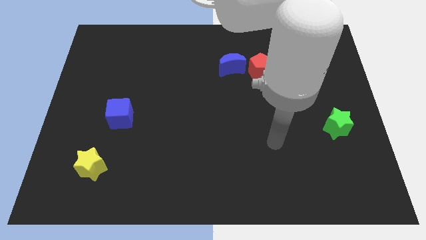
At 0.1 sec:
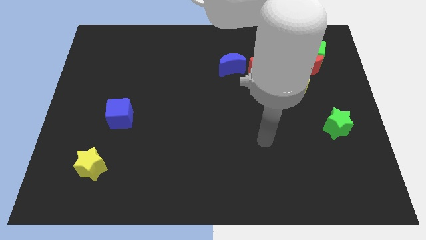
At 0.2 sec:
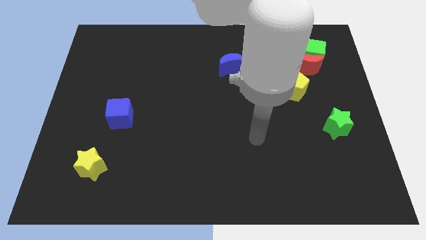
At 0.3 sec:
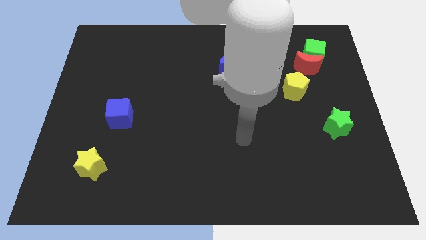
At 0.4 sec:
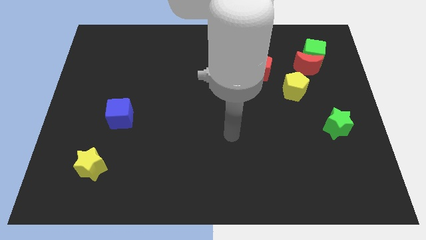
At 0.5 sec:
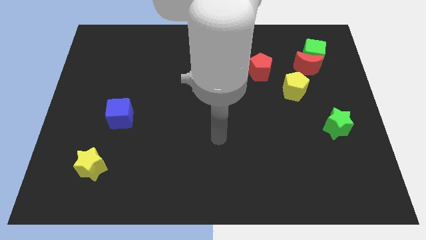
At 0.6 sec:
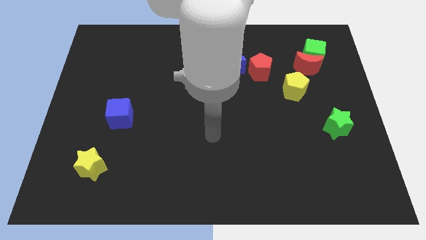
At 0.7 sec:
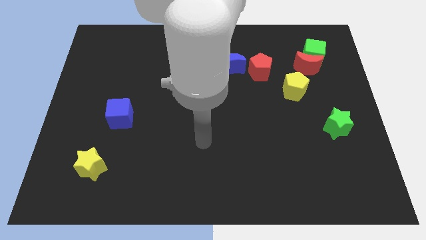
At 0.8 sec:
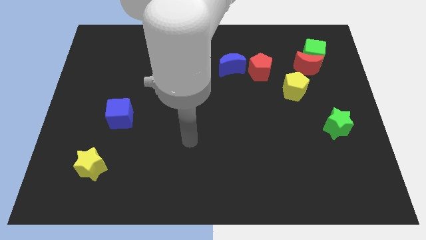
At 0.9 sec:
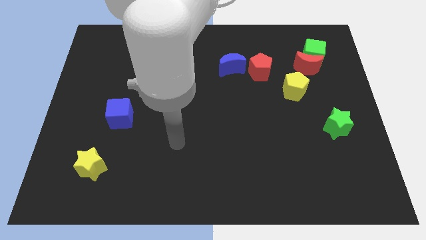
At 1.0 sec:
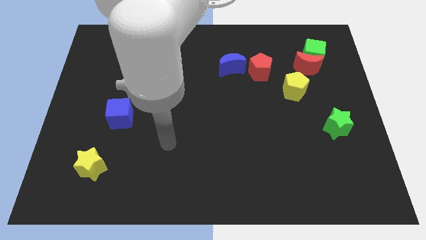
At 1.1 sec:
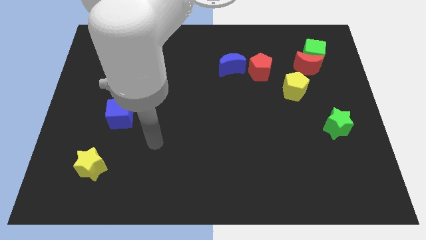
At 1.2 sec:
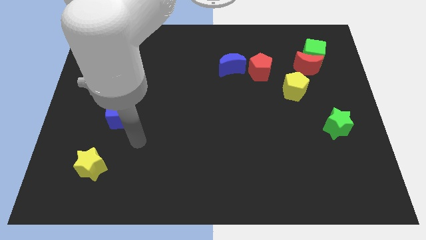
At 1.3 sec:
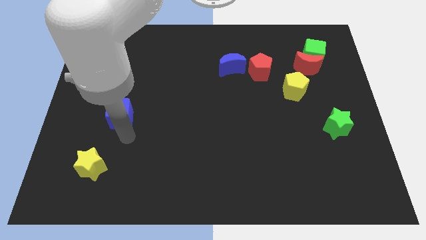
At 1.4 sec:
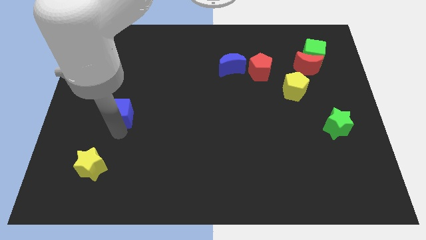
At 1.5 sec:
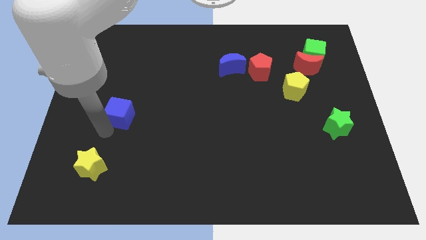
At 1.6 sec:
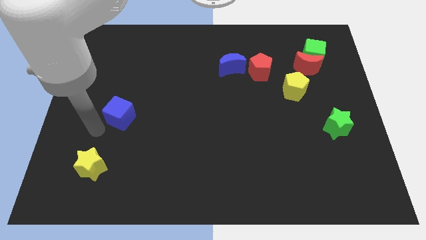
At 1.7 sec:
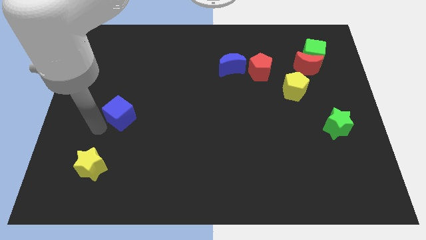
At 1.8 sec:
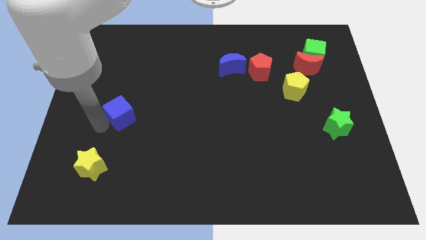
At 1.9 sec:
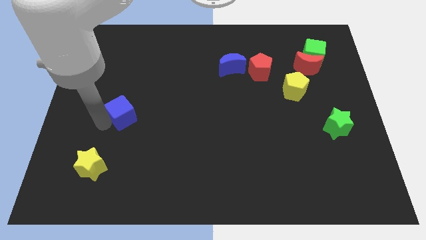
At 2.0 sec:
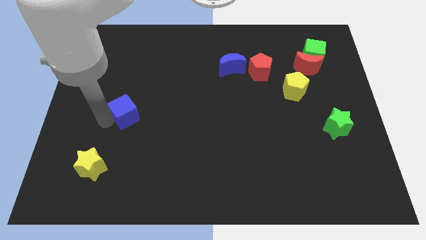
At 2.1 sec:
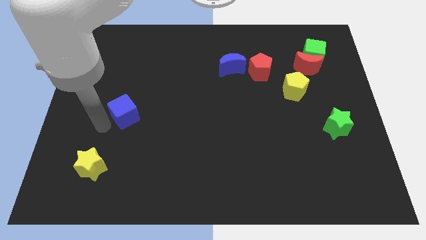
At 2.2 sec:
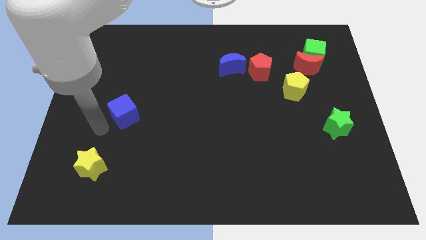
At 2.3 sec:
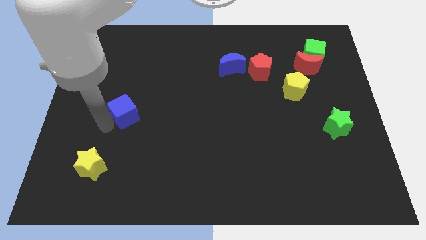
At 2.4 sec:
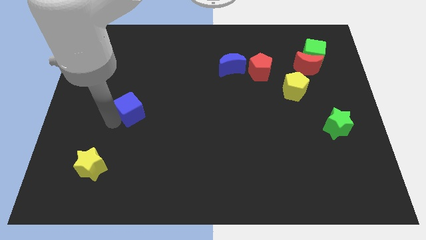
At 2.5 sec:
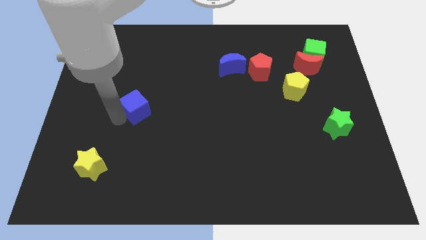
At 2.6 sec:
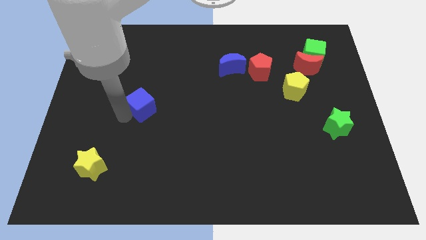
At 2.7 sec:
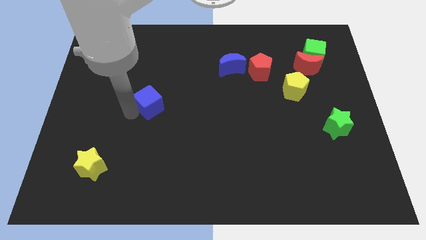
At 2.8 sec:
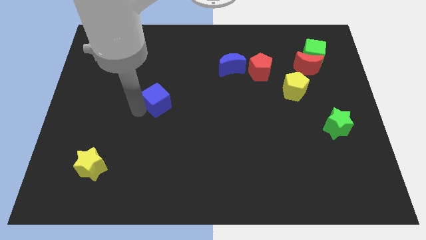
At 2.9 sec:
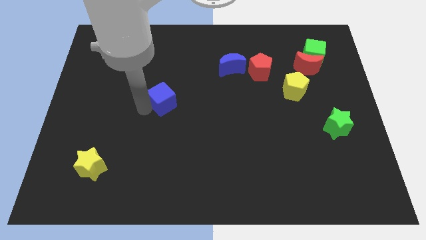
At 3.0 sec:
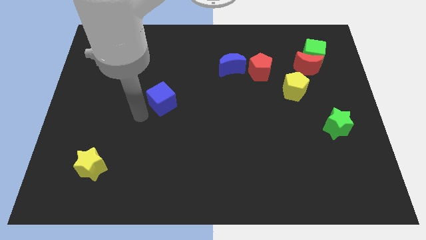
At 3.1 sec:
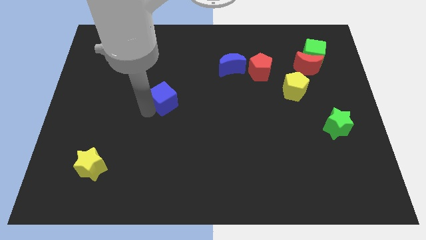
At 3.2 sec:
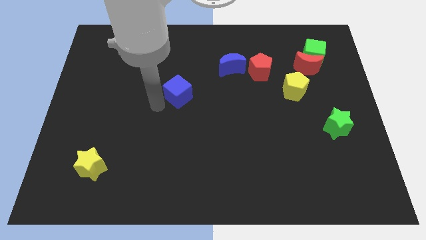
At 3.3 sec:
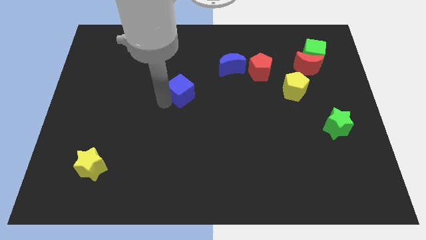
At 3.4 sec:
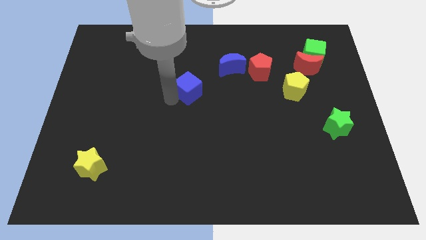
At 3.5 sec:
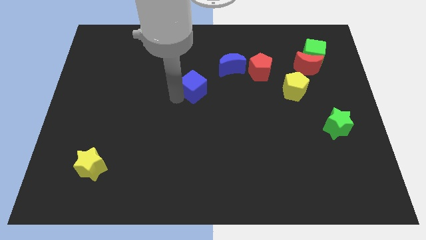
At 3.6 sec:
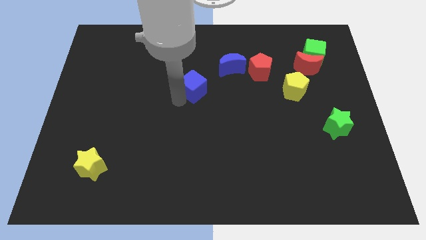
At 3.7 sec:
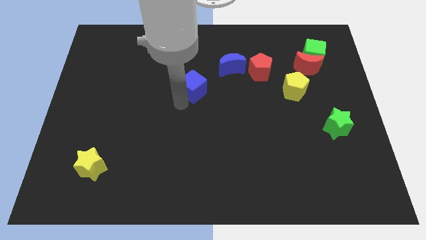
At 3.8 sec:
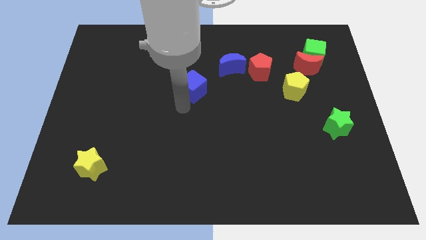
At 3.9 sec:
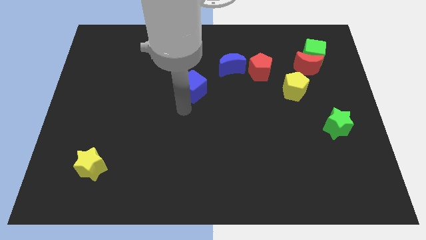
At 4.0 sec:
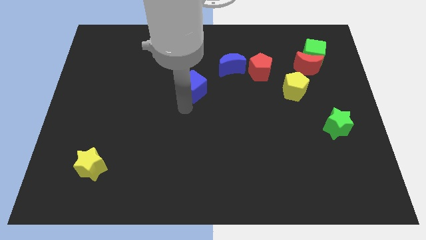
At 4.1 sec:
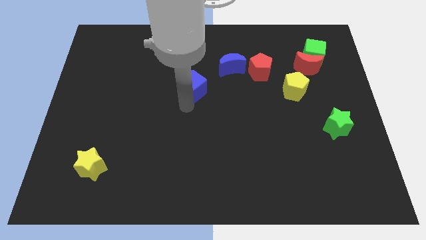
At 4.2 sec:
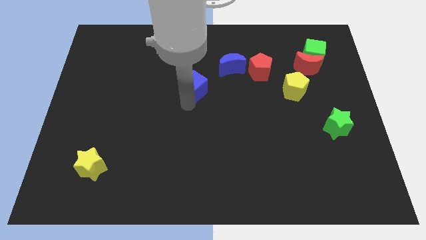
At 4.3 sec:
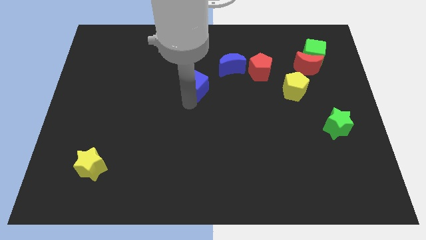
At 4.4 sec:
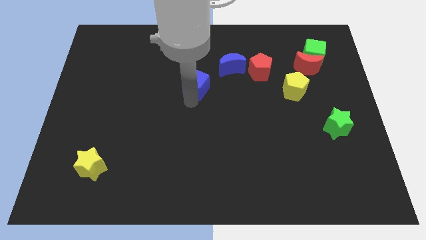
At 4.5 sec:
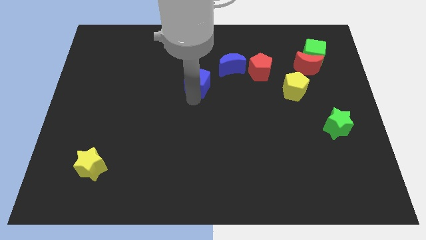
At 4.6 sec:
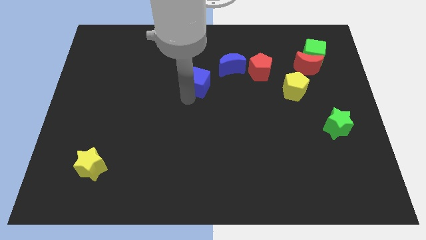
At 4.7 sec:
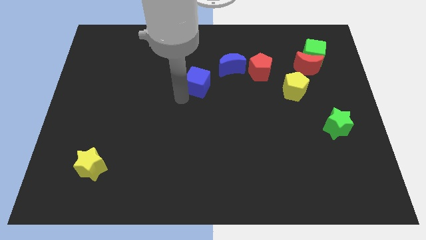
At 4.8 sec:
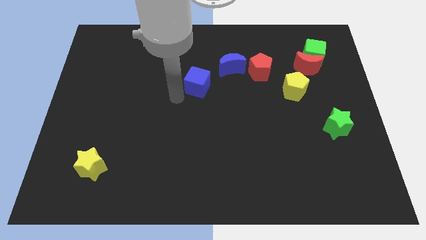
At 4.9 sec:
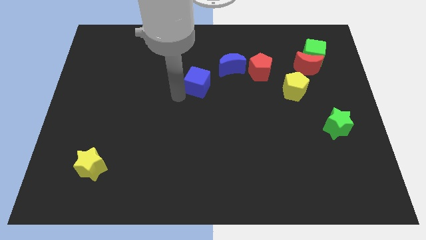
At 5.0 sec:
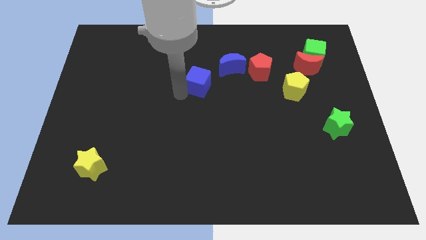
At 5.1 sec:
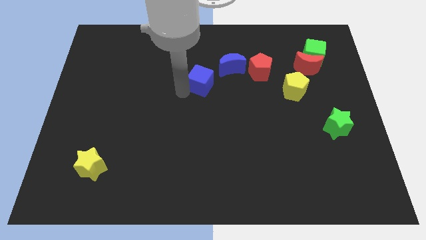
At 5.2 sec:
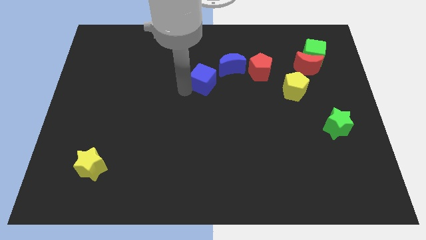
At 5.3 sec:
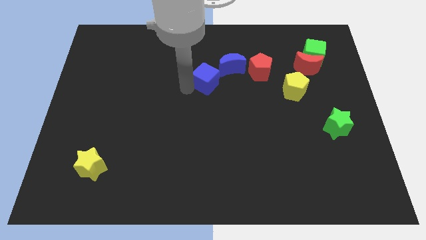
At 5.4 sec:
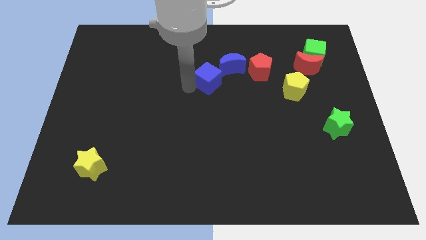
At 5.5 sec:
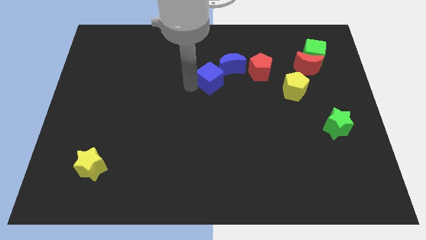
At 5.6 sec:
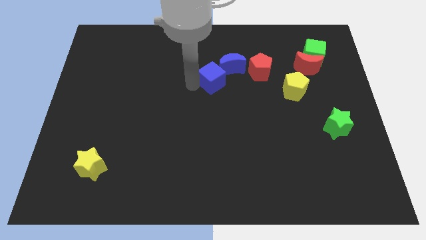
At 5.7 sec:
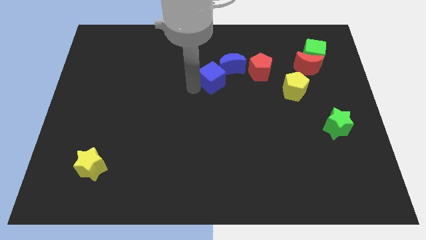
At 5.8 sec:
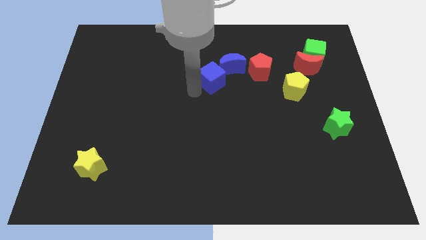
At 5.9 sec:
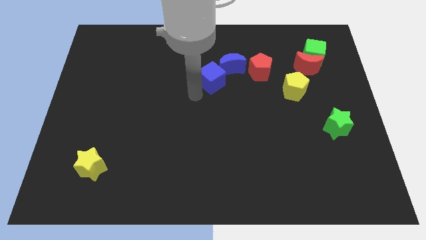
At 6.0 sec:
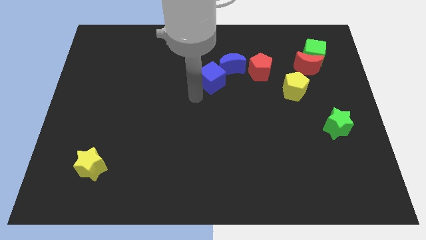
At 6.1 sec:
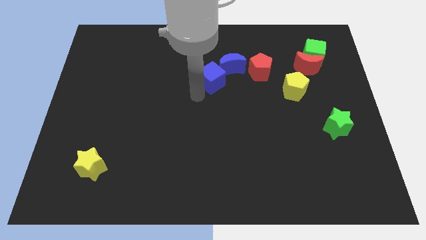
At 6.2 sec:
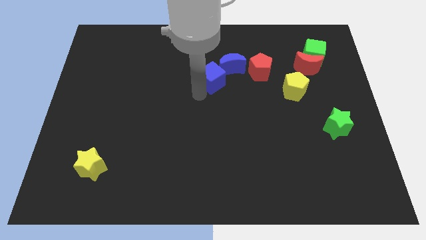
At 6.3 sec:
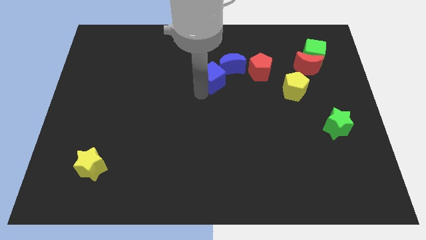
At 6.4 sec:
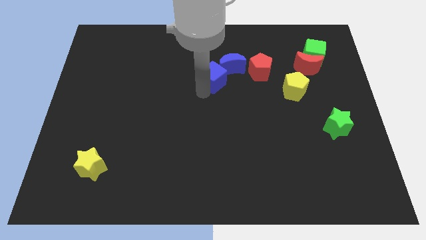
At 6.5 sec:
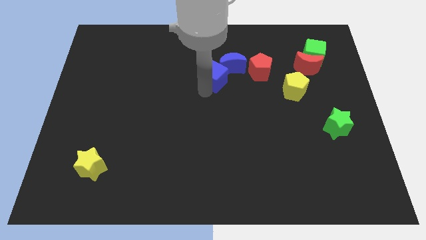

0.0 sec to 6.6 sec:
slide the blue cube next to the blue moon
